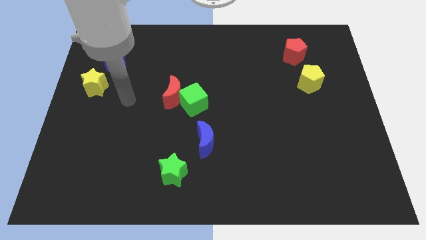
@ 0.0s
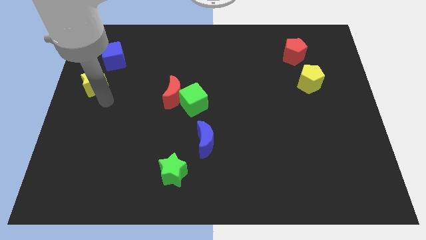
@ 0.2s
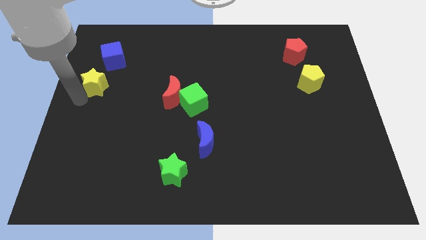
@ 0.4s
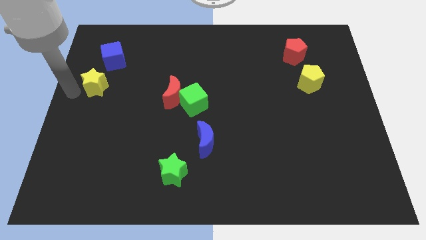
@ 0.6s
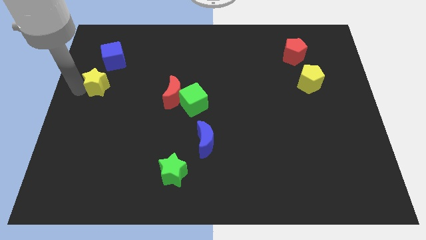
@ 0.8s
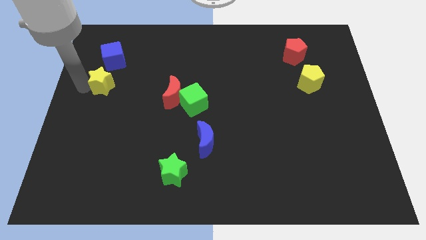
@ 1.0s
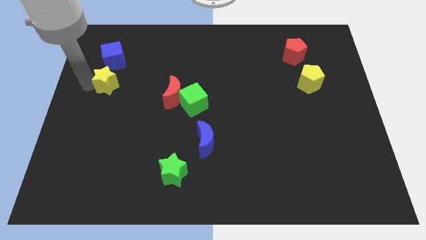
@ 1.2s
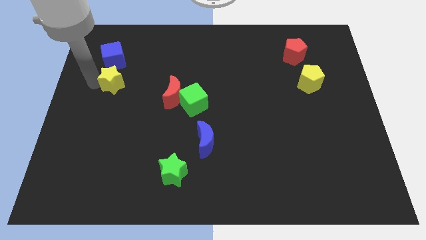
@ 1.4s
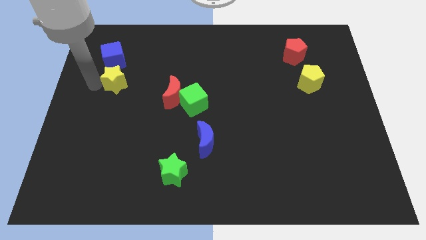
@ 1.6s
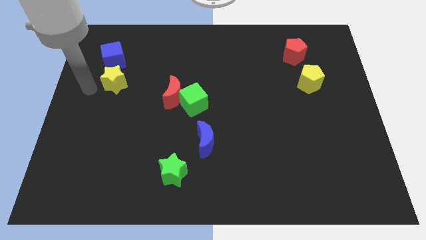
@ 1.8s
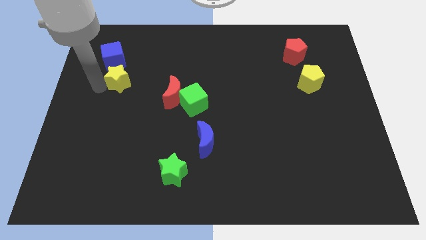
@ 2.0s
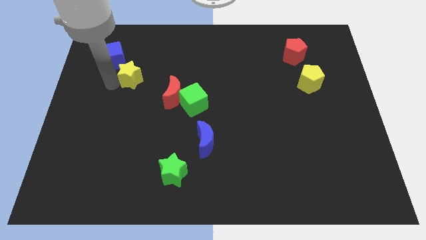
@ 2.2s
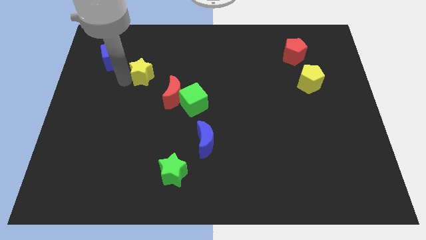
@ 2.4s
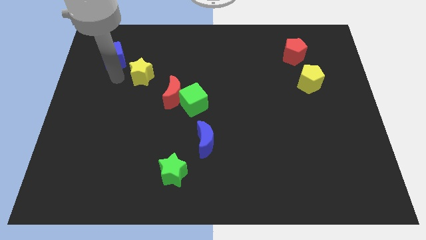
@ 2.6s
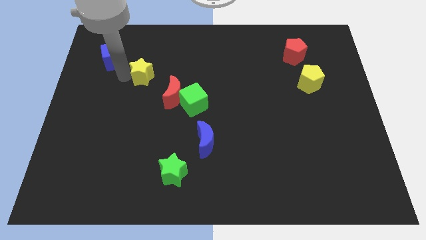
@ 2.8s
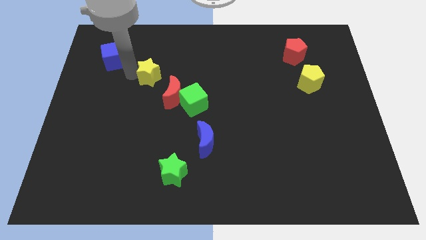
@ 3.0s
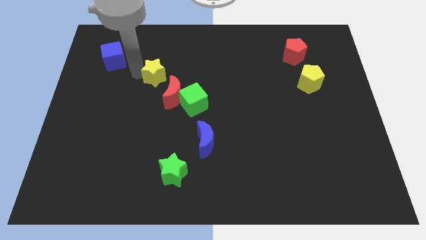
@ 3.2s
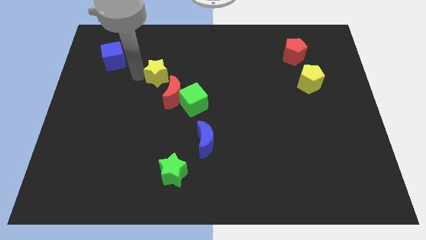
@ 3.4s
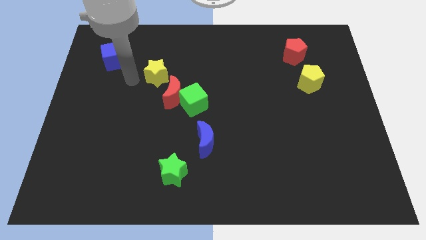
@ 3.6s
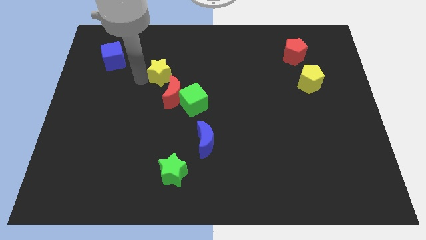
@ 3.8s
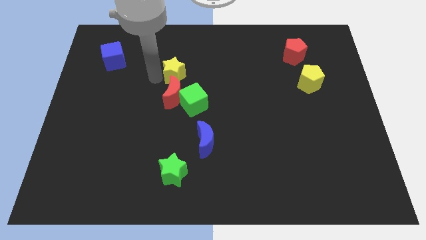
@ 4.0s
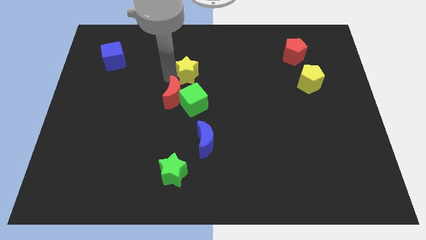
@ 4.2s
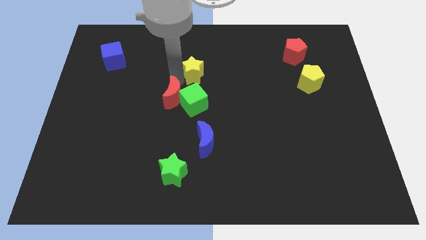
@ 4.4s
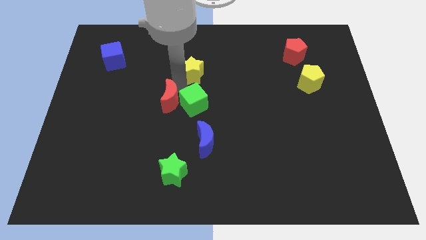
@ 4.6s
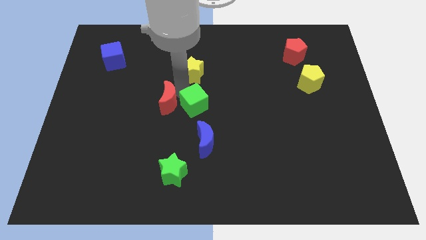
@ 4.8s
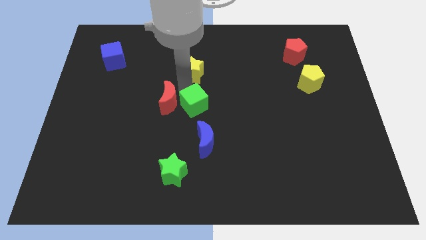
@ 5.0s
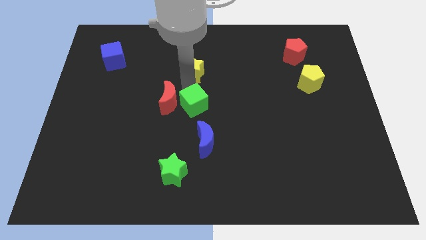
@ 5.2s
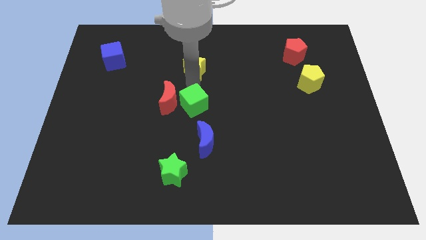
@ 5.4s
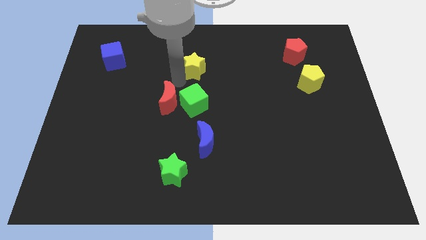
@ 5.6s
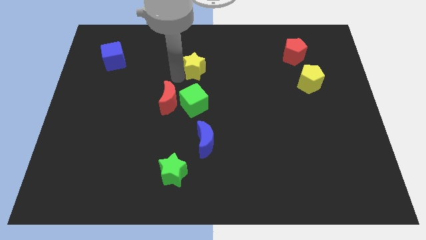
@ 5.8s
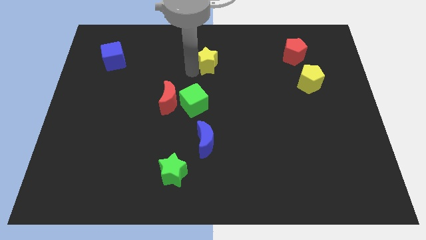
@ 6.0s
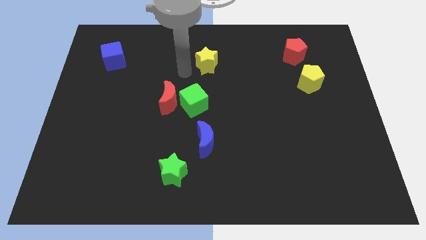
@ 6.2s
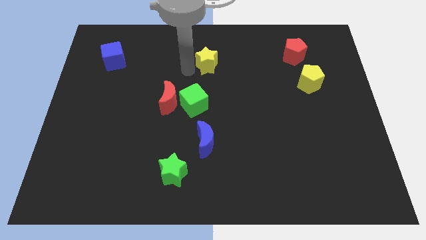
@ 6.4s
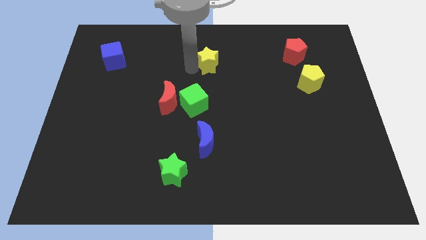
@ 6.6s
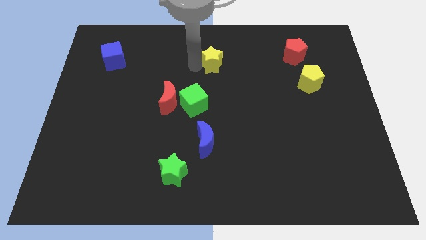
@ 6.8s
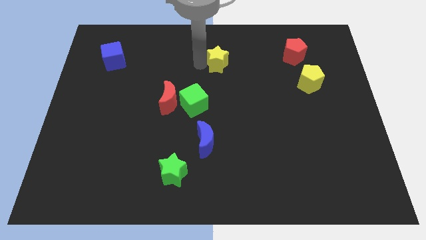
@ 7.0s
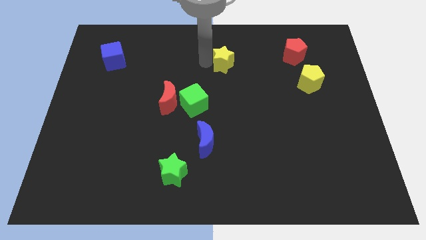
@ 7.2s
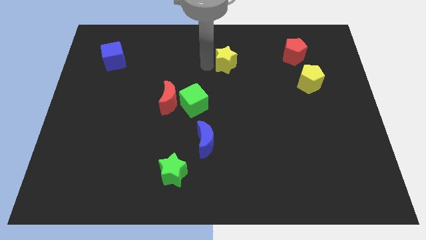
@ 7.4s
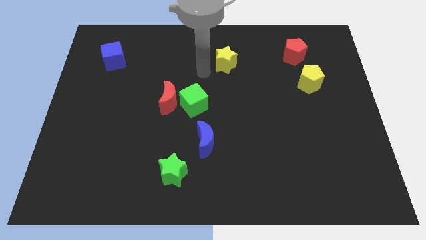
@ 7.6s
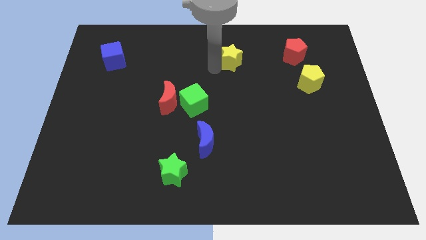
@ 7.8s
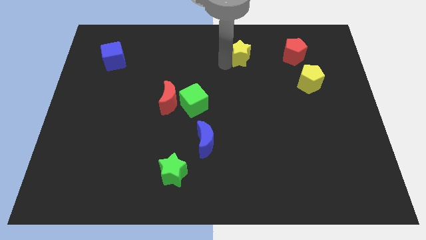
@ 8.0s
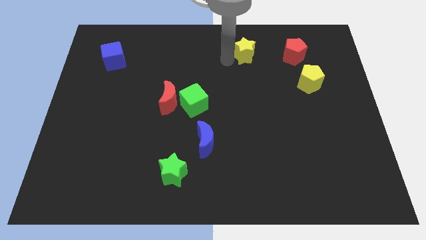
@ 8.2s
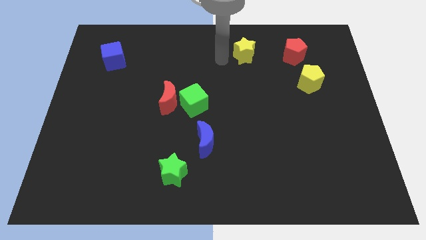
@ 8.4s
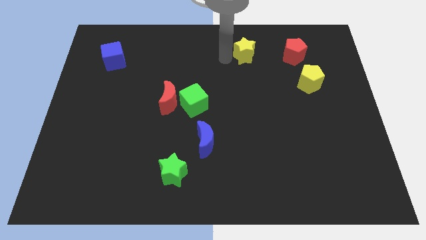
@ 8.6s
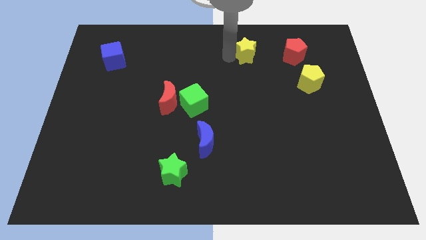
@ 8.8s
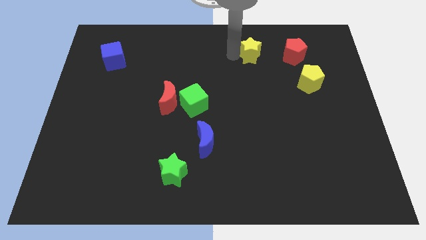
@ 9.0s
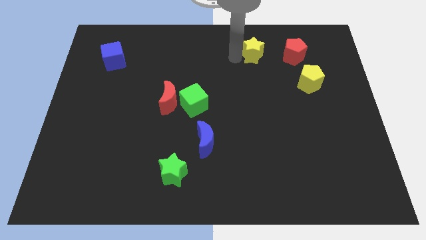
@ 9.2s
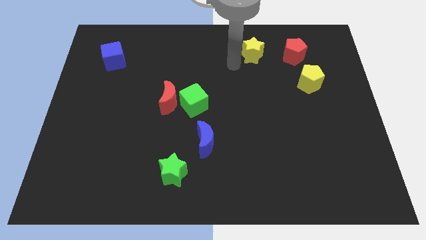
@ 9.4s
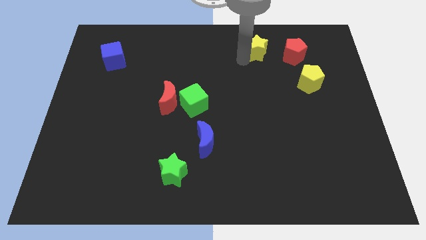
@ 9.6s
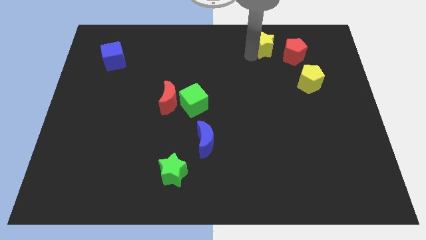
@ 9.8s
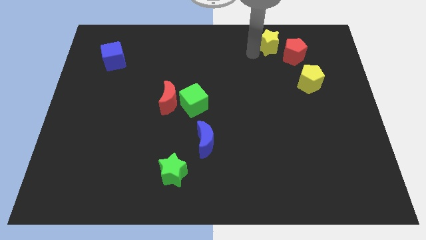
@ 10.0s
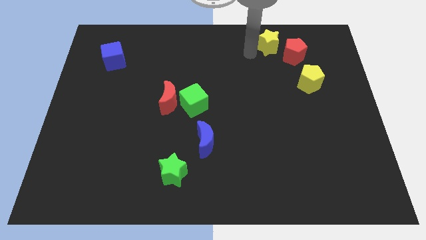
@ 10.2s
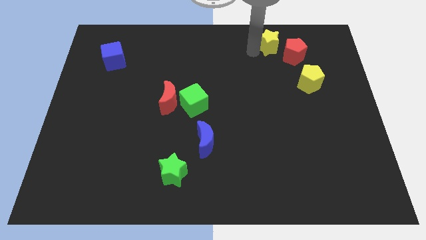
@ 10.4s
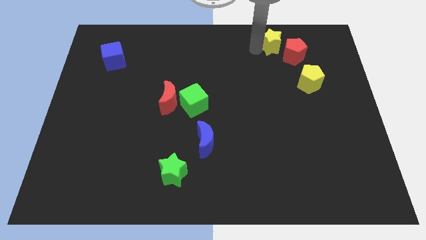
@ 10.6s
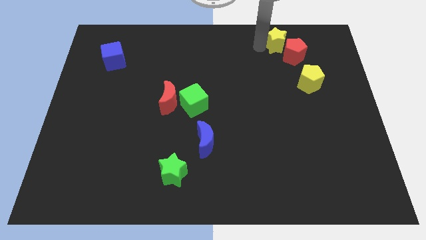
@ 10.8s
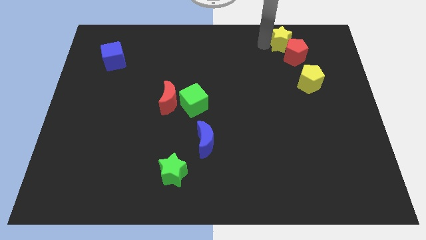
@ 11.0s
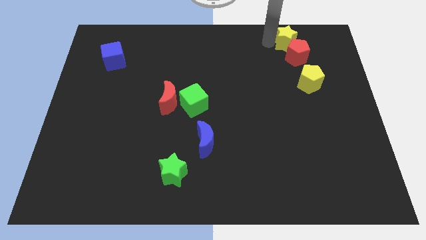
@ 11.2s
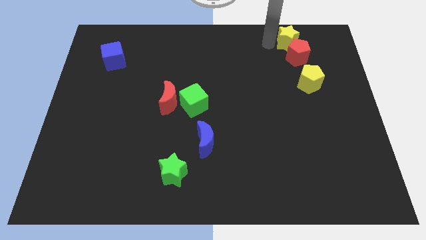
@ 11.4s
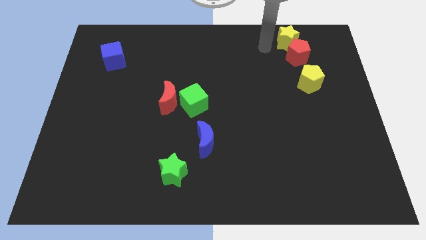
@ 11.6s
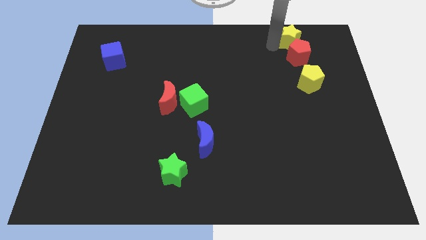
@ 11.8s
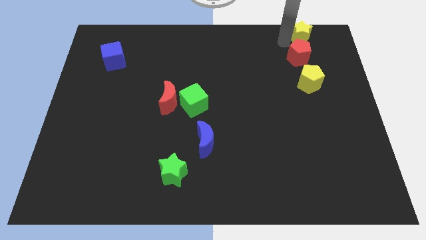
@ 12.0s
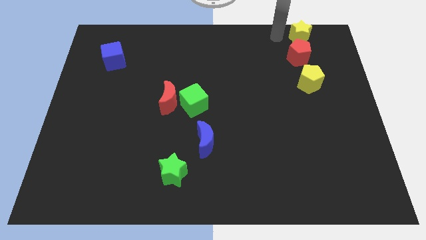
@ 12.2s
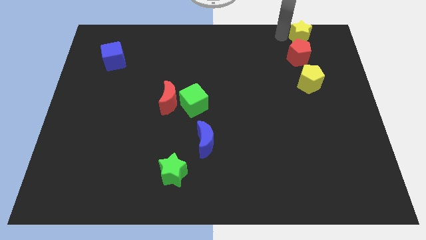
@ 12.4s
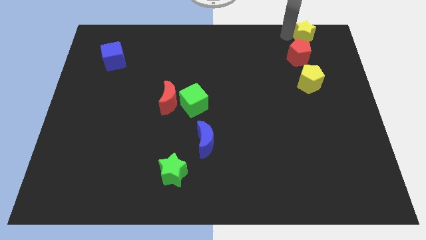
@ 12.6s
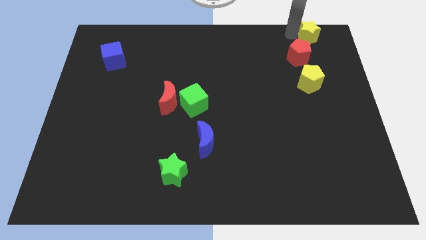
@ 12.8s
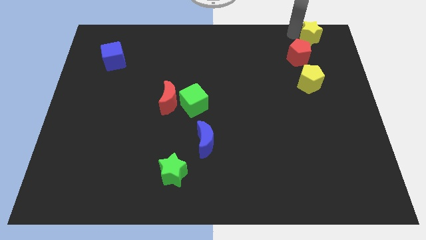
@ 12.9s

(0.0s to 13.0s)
push the yellow star to the top right corner
